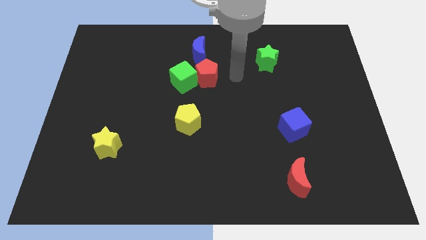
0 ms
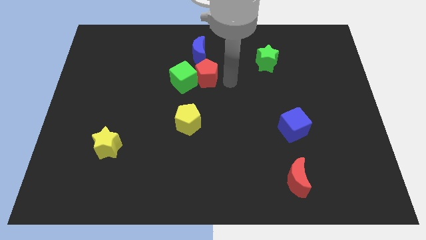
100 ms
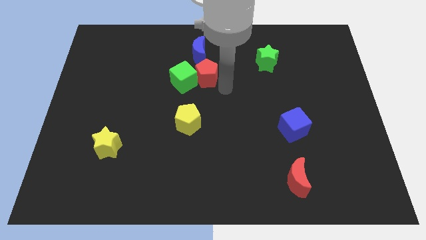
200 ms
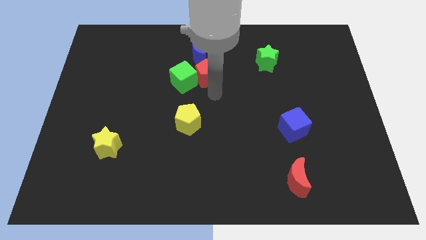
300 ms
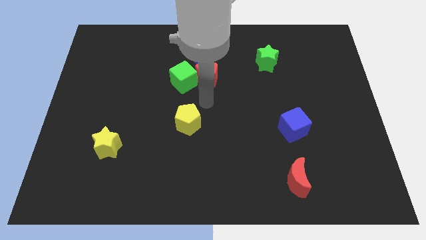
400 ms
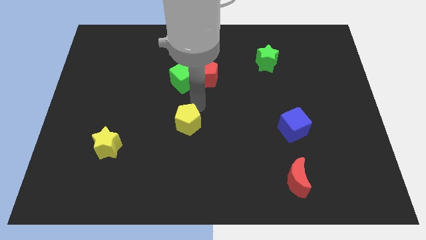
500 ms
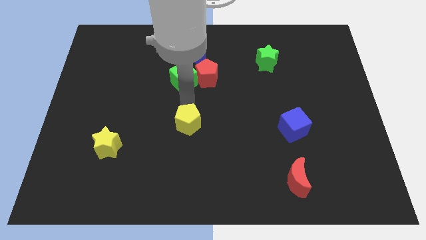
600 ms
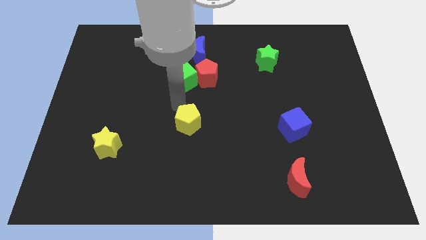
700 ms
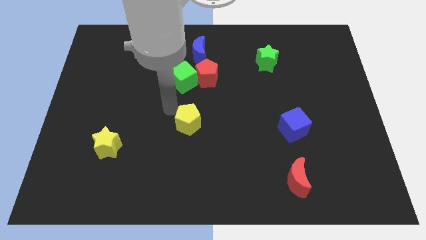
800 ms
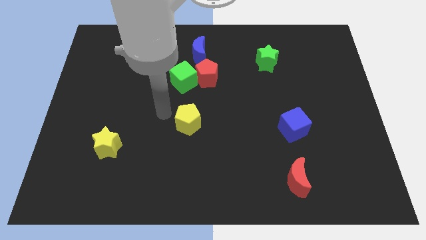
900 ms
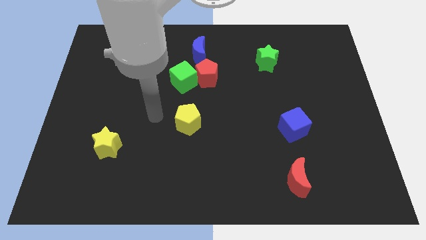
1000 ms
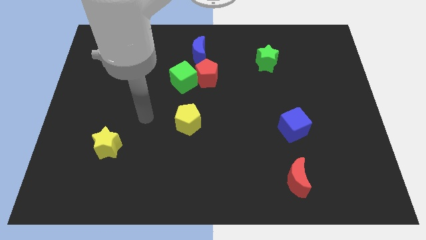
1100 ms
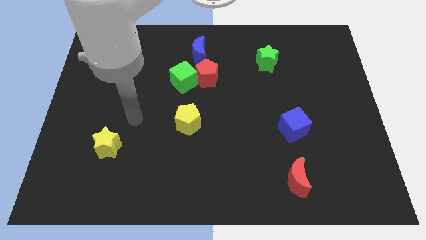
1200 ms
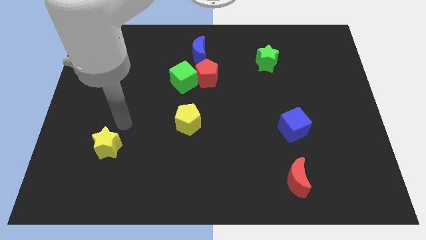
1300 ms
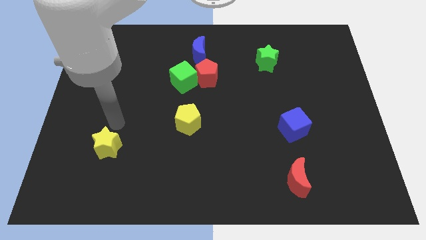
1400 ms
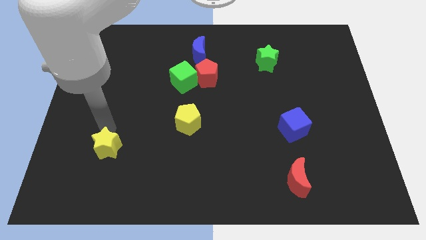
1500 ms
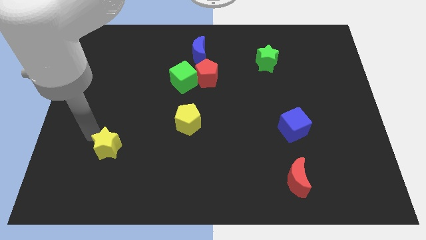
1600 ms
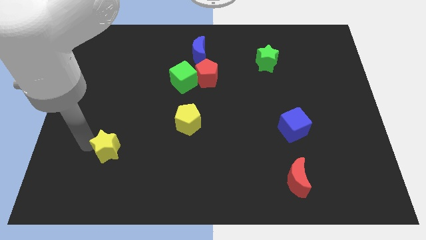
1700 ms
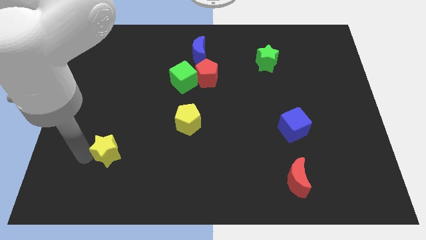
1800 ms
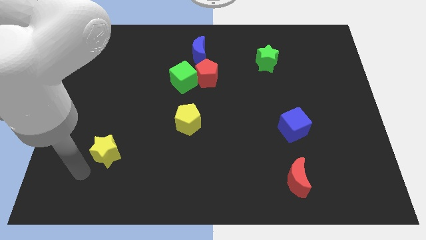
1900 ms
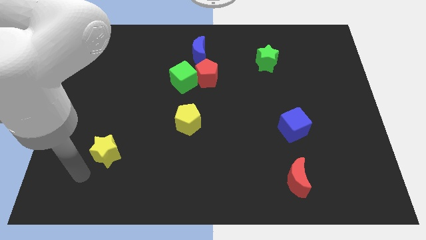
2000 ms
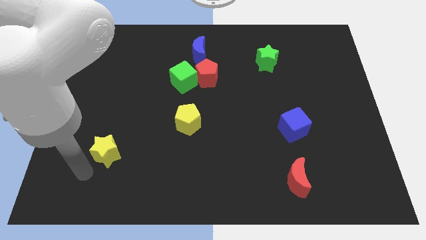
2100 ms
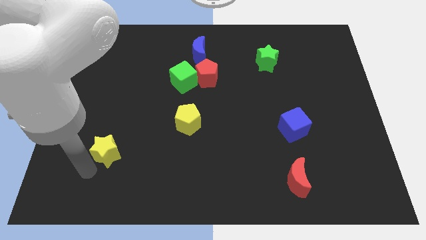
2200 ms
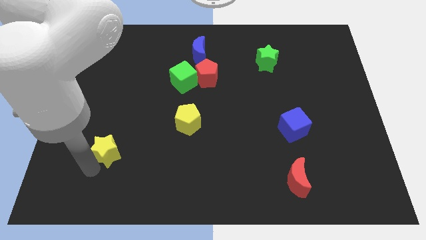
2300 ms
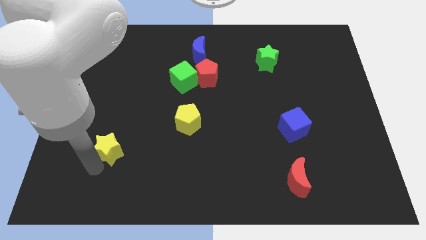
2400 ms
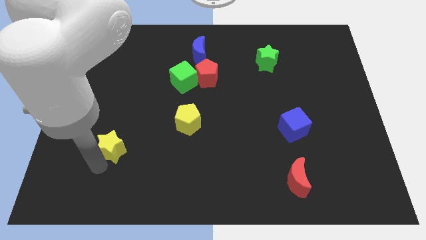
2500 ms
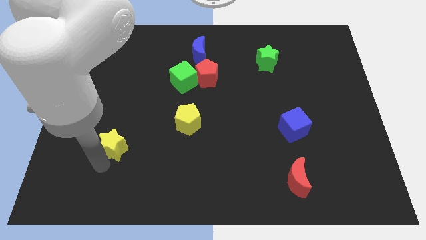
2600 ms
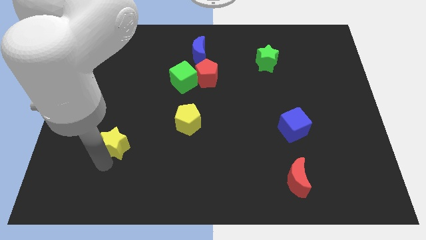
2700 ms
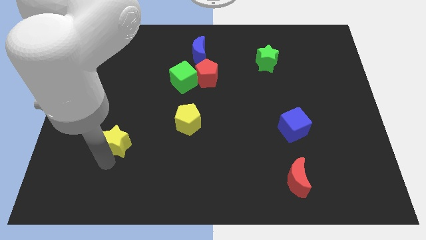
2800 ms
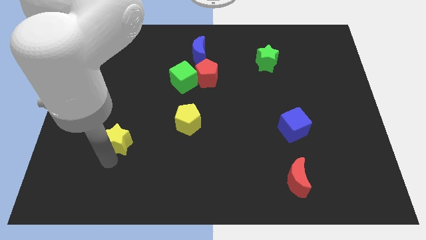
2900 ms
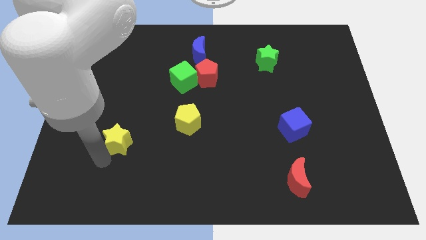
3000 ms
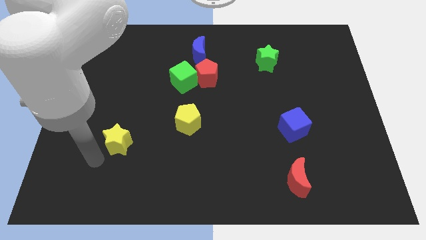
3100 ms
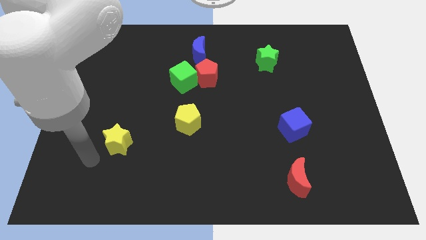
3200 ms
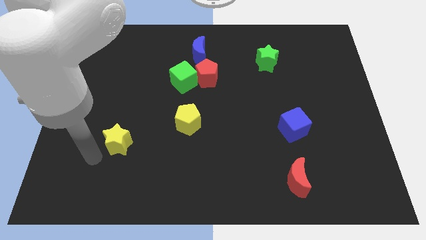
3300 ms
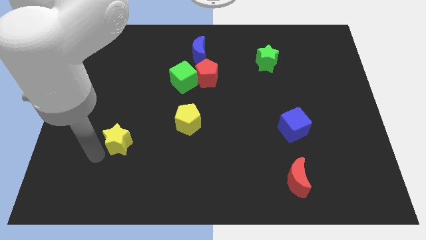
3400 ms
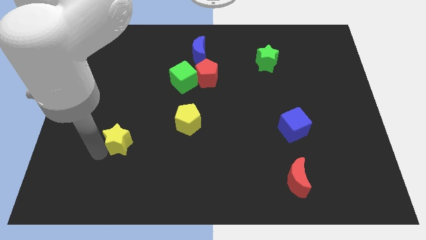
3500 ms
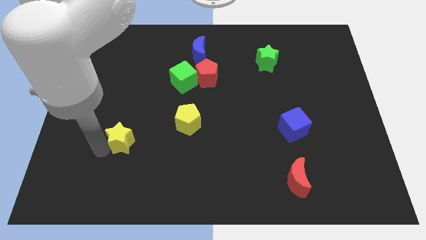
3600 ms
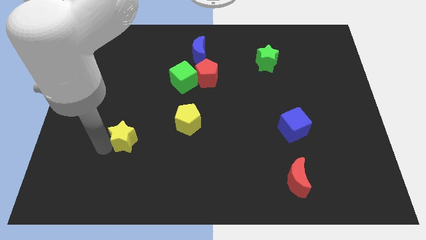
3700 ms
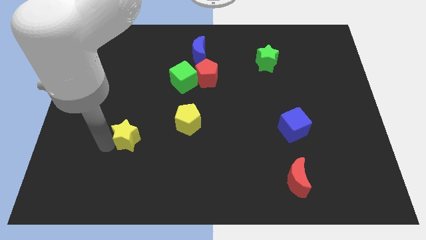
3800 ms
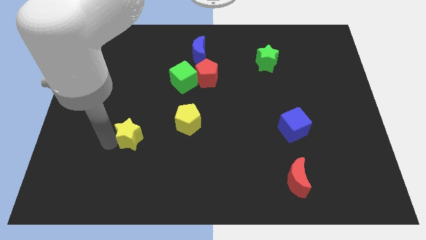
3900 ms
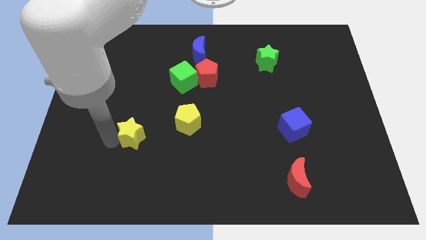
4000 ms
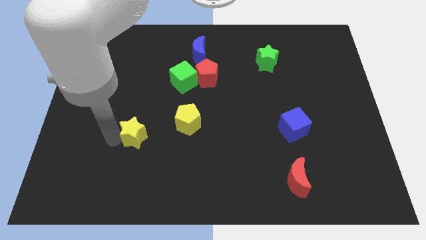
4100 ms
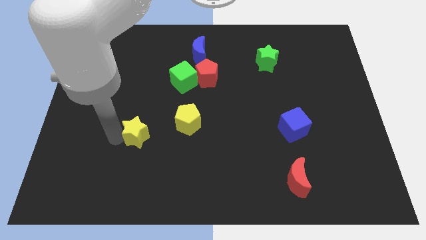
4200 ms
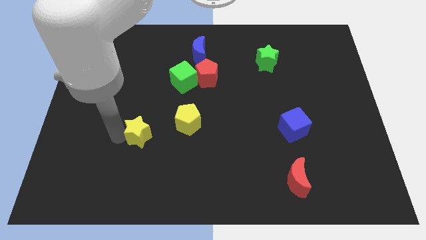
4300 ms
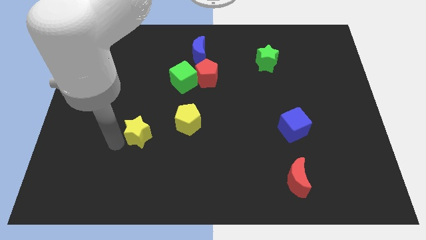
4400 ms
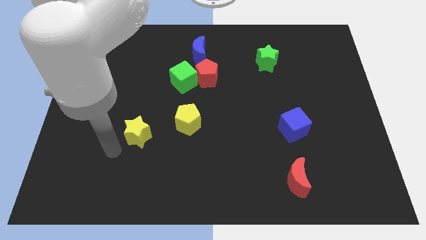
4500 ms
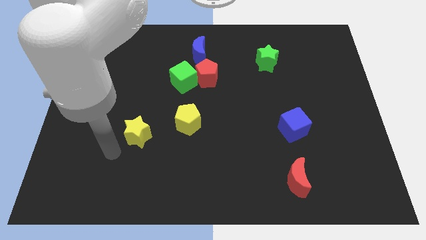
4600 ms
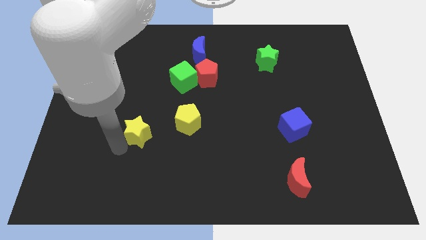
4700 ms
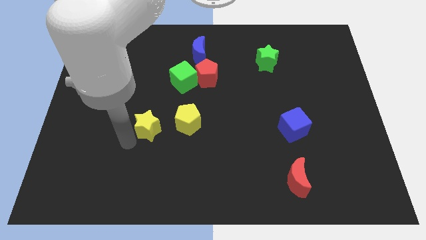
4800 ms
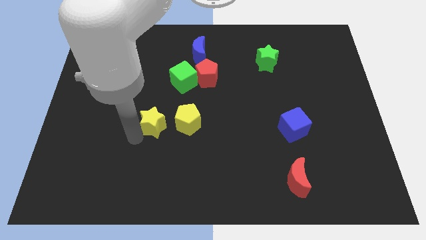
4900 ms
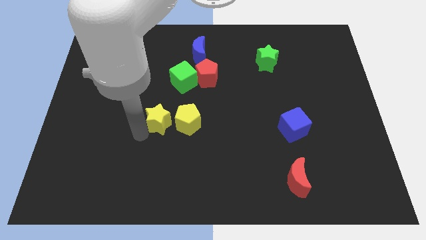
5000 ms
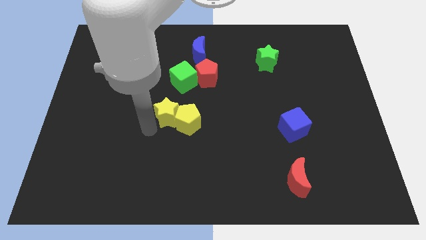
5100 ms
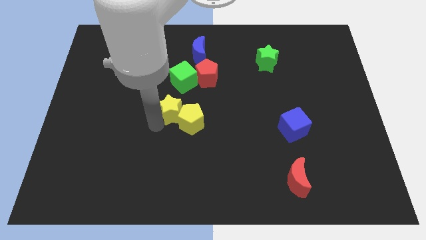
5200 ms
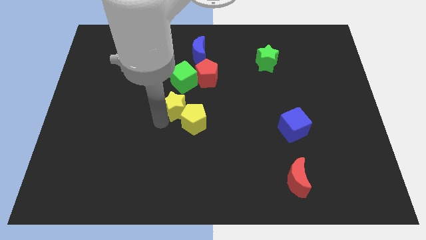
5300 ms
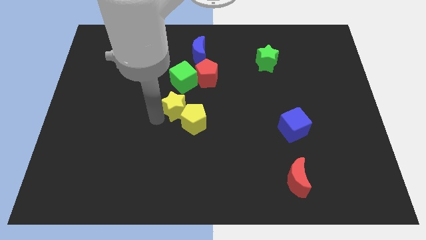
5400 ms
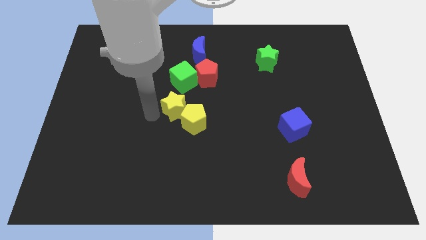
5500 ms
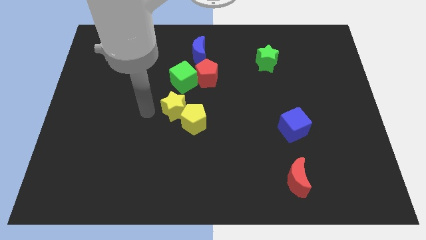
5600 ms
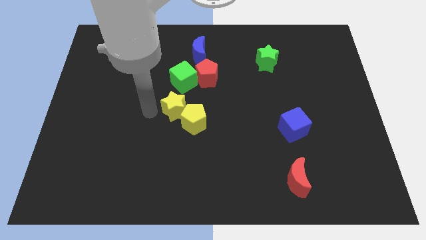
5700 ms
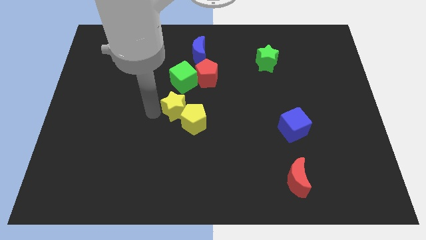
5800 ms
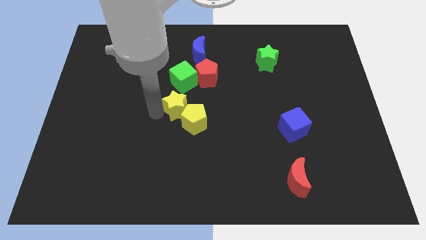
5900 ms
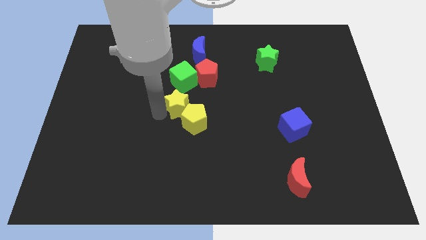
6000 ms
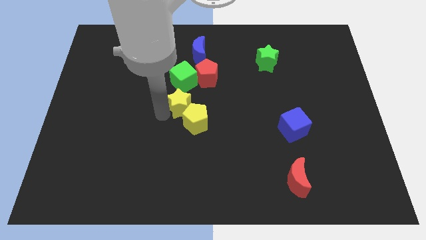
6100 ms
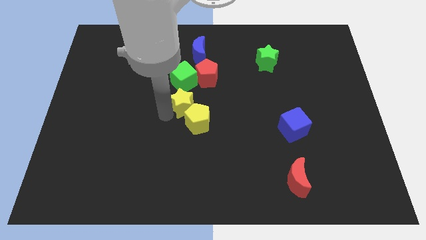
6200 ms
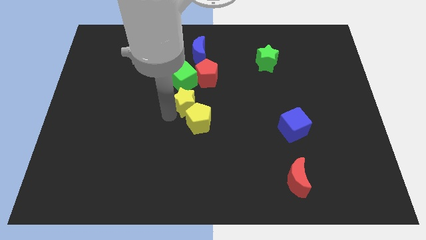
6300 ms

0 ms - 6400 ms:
slide the yellow star to the bottom side of the red pentagon
